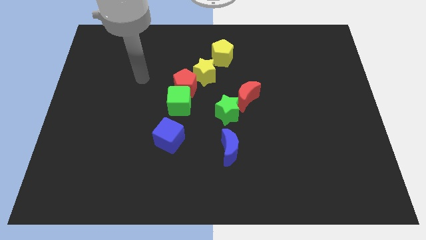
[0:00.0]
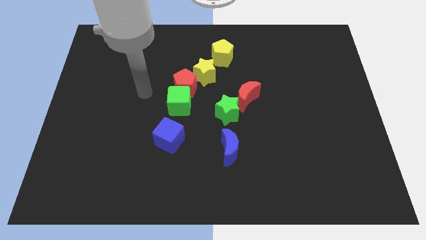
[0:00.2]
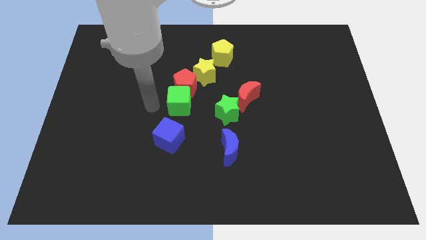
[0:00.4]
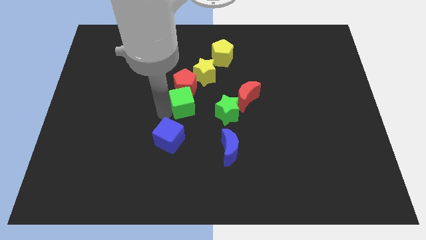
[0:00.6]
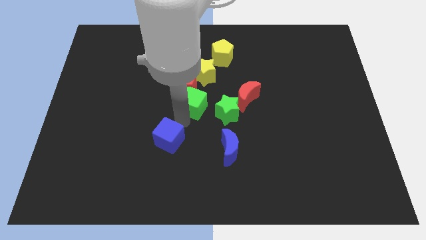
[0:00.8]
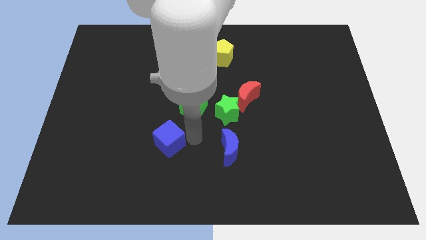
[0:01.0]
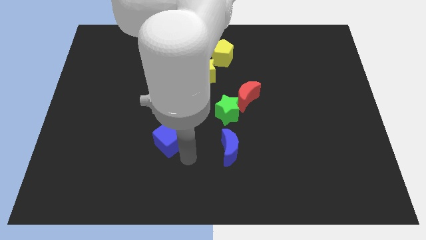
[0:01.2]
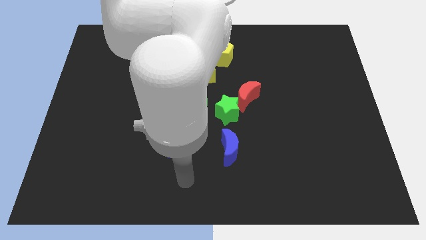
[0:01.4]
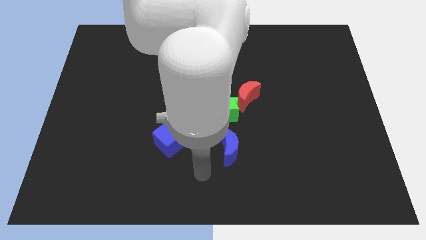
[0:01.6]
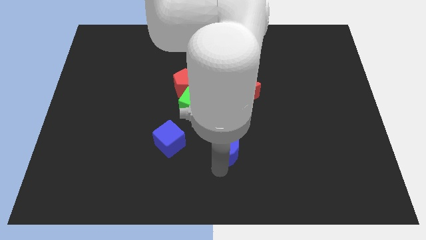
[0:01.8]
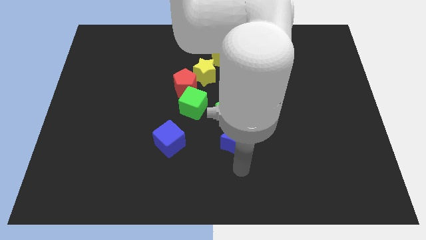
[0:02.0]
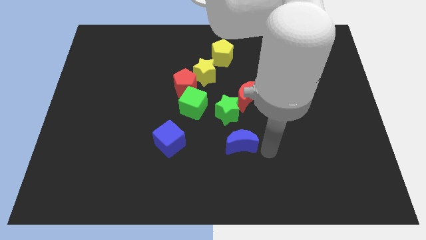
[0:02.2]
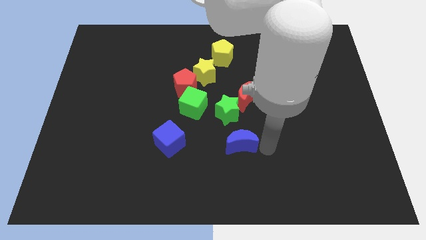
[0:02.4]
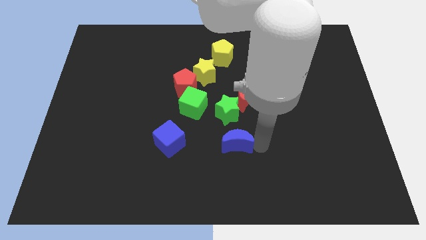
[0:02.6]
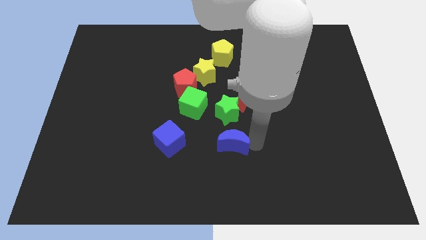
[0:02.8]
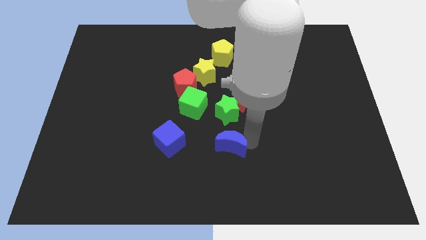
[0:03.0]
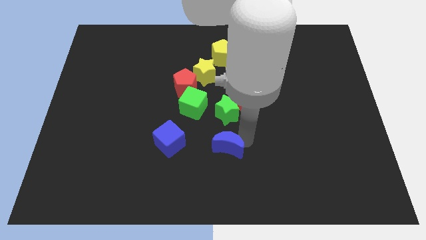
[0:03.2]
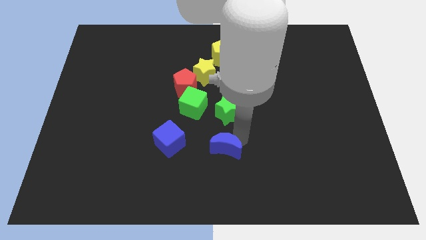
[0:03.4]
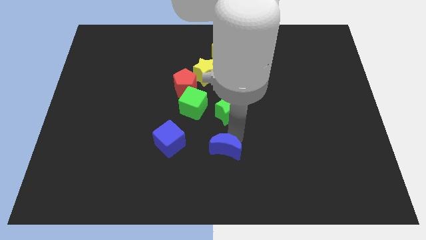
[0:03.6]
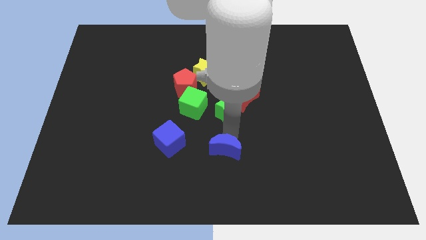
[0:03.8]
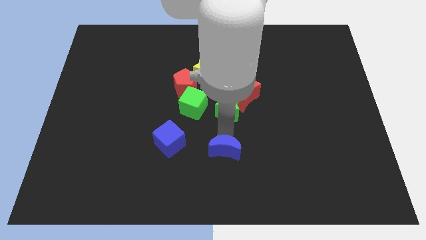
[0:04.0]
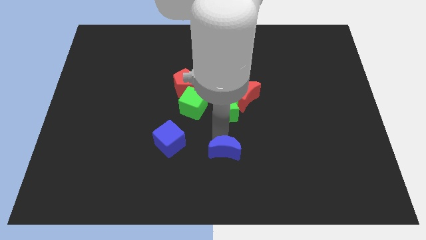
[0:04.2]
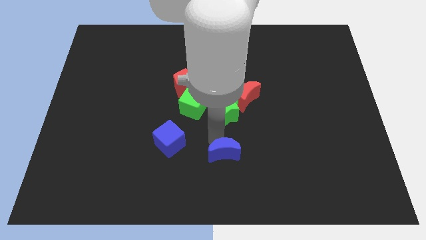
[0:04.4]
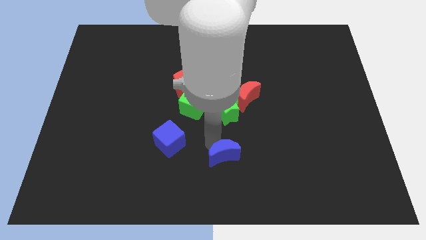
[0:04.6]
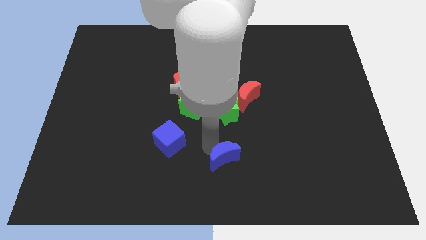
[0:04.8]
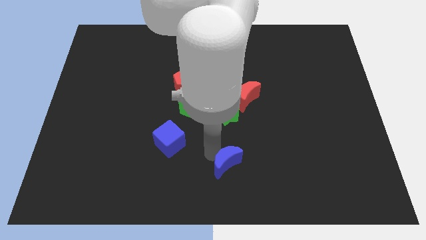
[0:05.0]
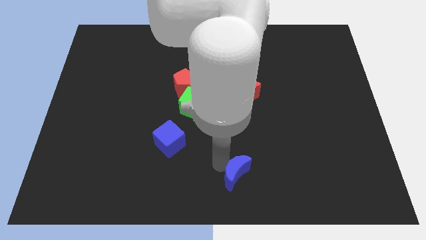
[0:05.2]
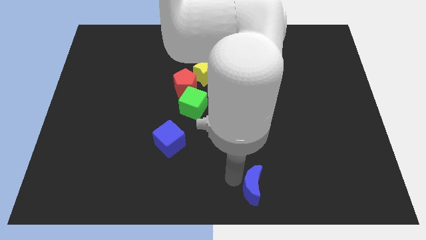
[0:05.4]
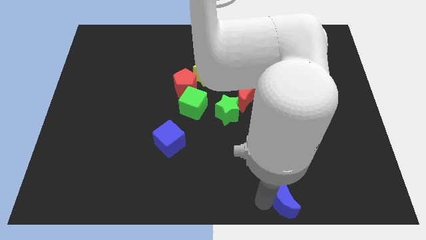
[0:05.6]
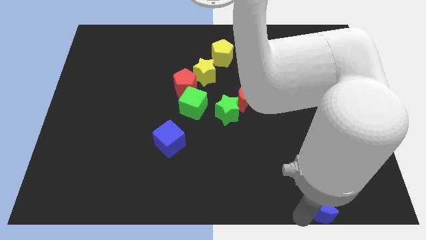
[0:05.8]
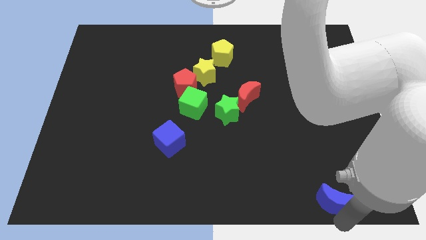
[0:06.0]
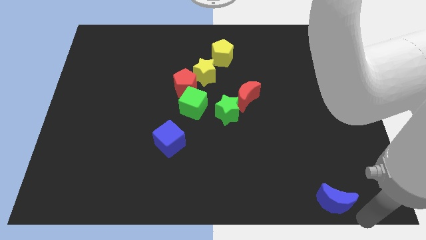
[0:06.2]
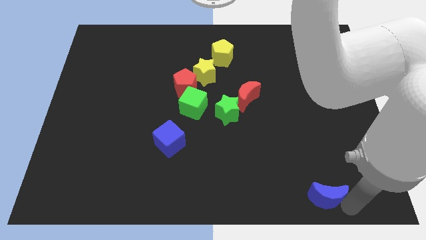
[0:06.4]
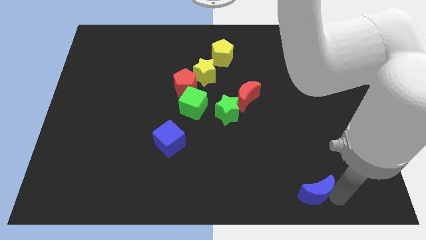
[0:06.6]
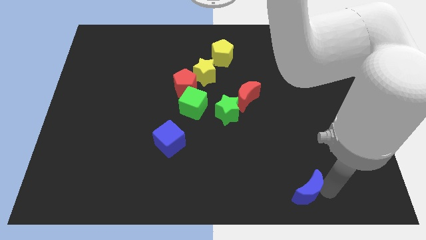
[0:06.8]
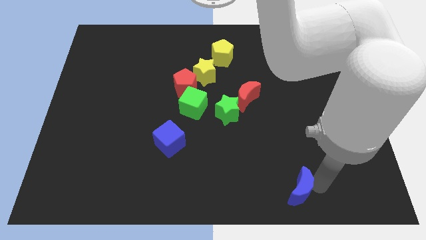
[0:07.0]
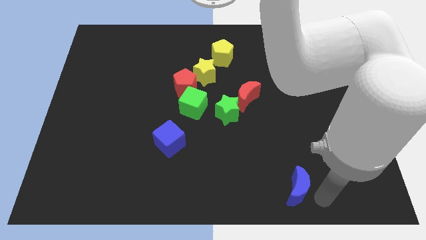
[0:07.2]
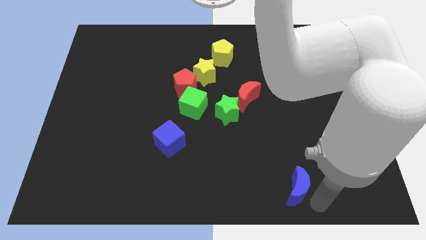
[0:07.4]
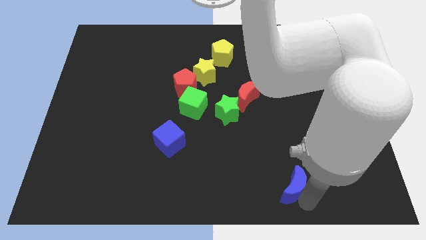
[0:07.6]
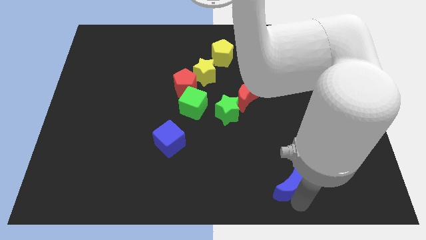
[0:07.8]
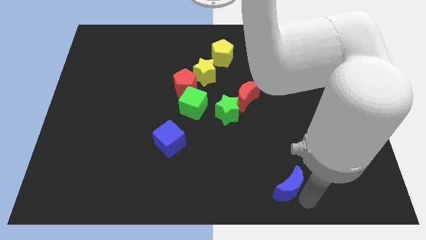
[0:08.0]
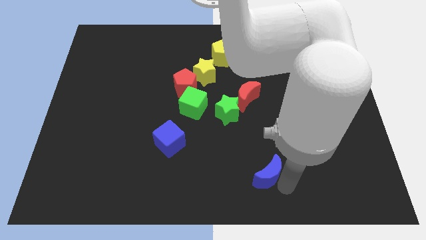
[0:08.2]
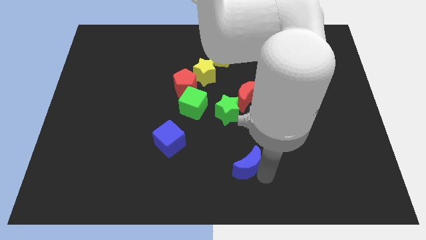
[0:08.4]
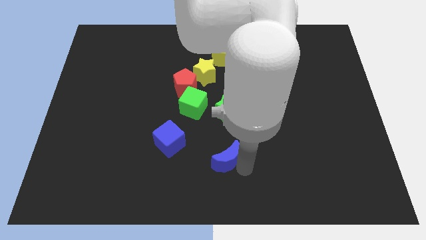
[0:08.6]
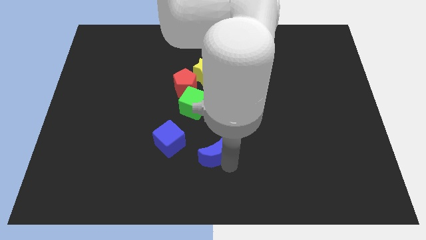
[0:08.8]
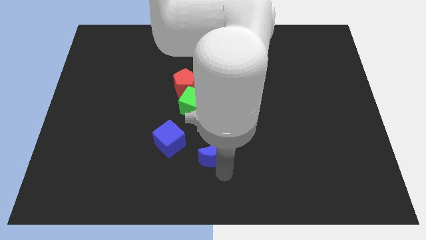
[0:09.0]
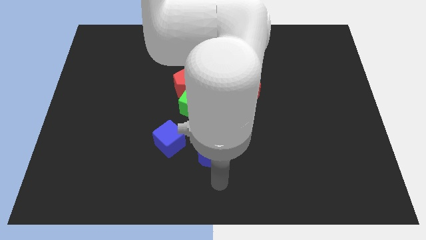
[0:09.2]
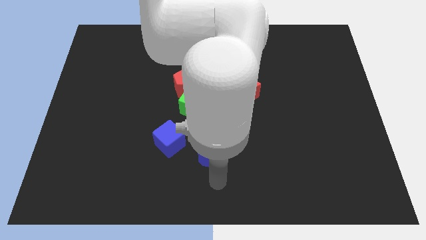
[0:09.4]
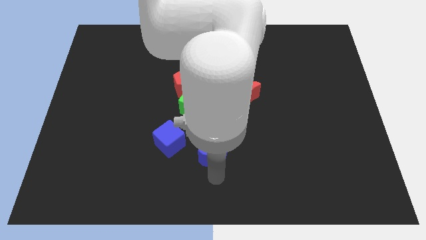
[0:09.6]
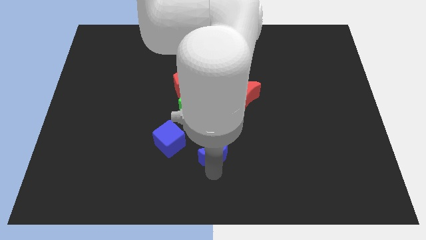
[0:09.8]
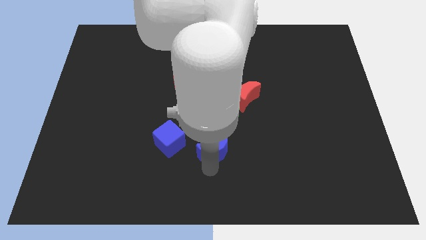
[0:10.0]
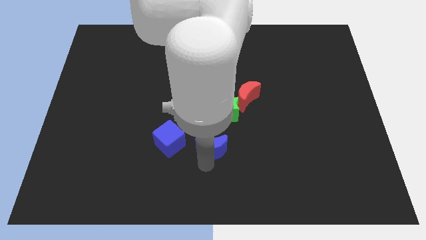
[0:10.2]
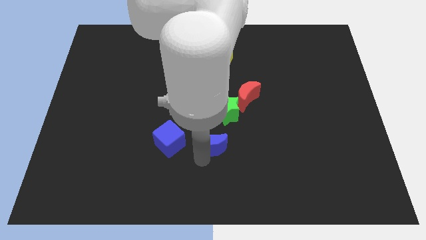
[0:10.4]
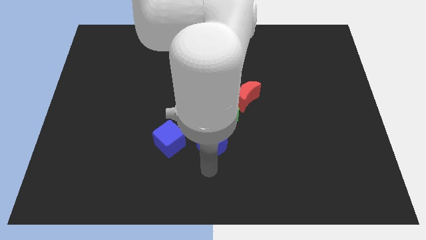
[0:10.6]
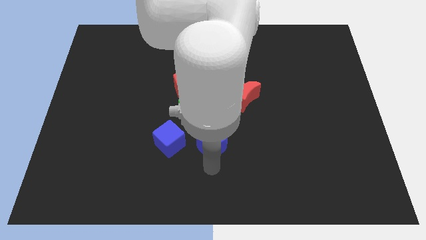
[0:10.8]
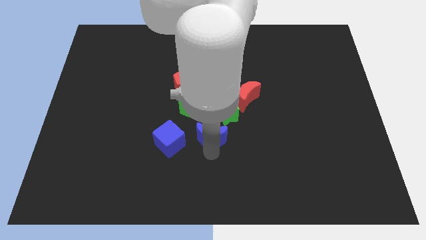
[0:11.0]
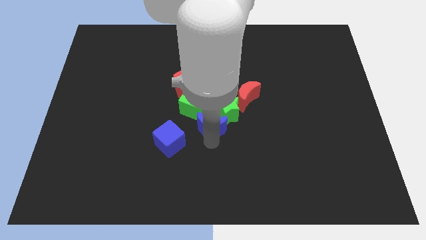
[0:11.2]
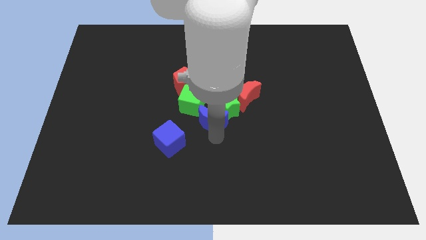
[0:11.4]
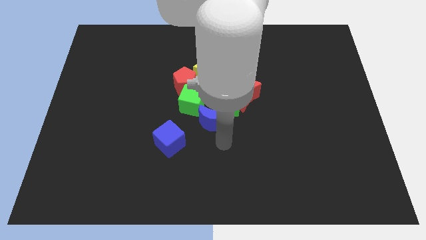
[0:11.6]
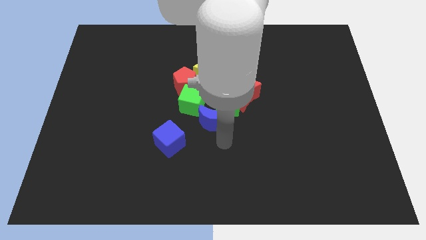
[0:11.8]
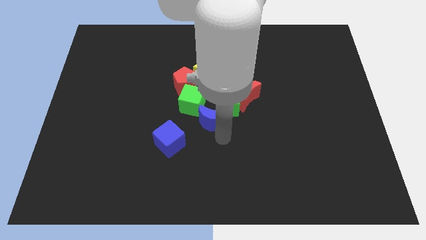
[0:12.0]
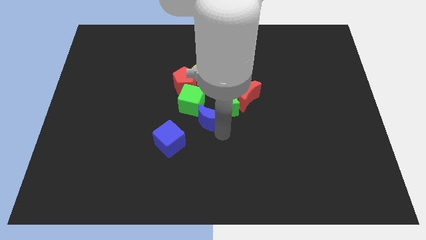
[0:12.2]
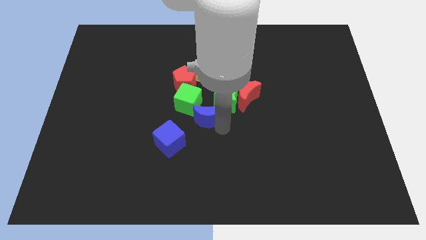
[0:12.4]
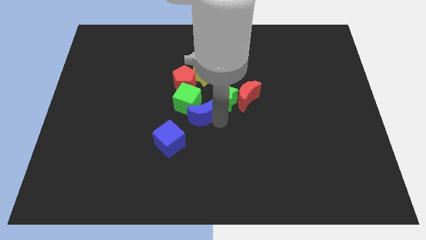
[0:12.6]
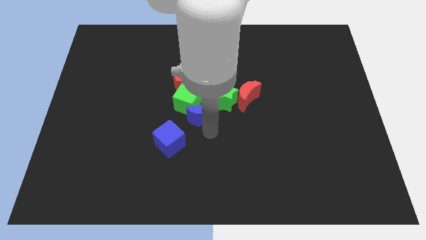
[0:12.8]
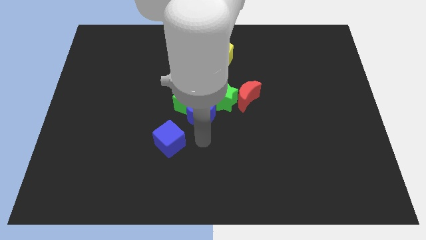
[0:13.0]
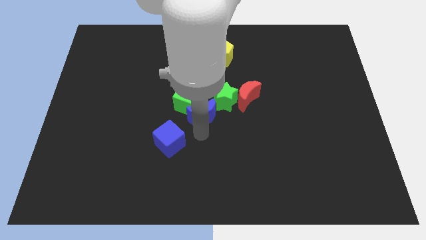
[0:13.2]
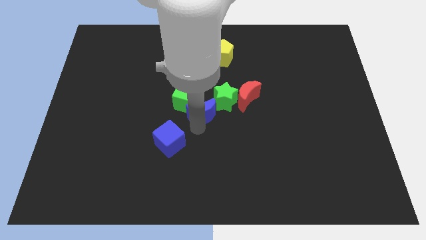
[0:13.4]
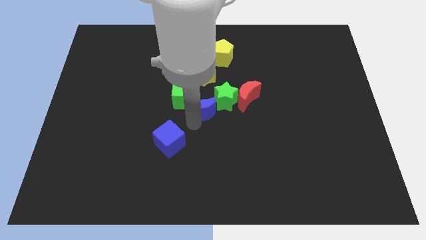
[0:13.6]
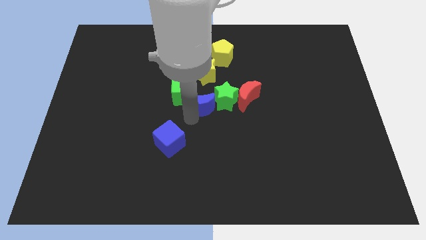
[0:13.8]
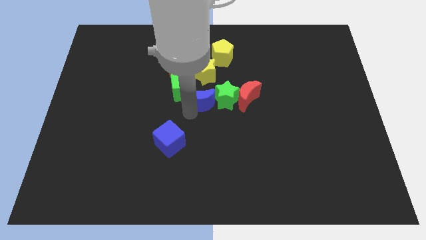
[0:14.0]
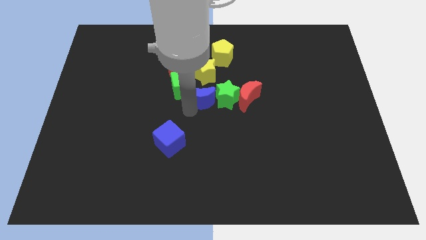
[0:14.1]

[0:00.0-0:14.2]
slide the blue moon to the top left side of the green star
